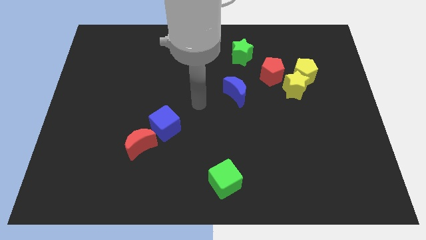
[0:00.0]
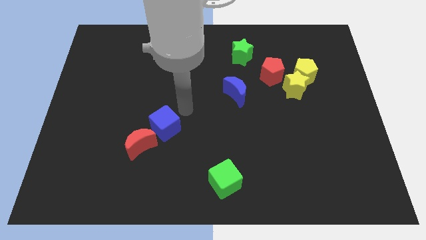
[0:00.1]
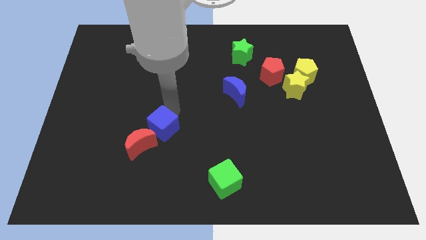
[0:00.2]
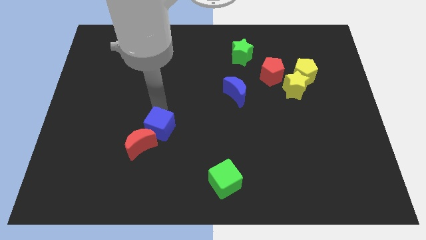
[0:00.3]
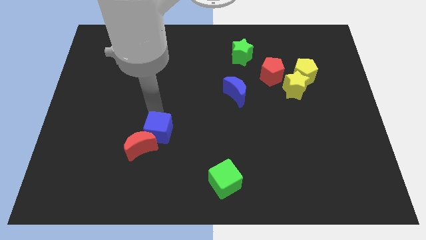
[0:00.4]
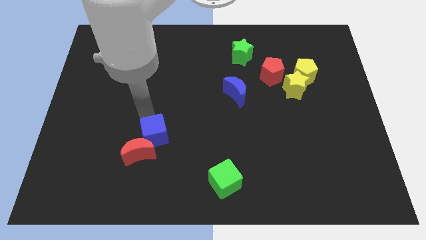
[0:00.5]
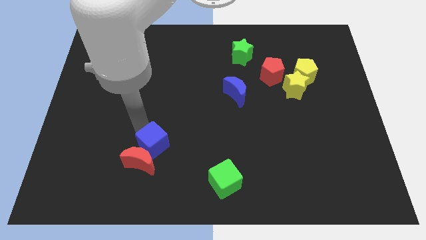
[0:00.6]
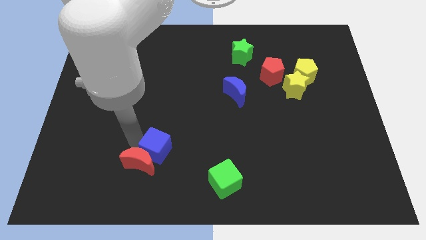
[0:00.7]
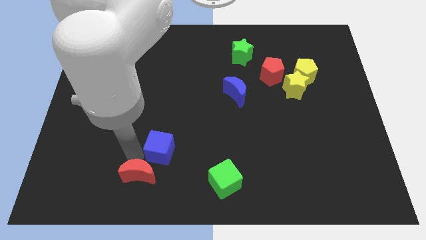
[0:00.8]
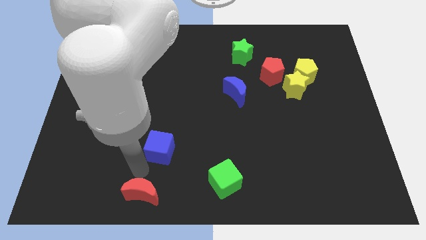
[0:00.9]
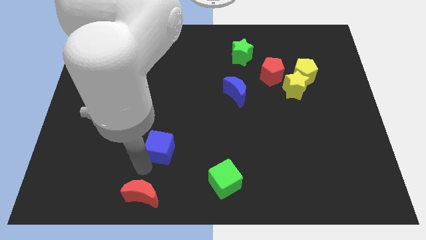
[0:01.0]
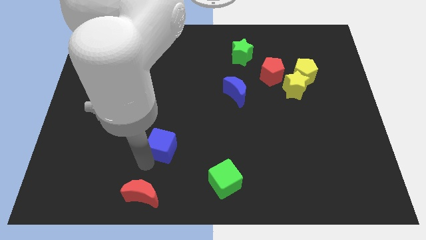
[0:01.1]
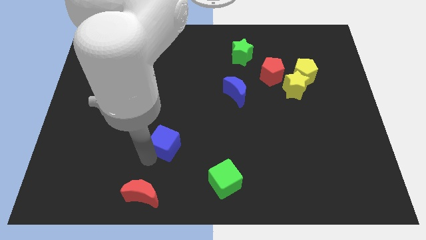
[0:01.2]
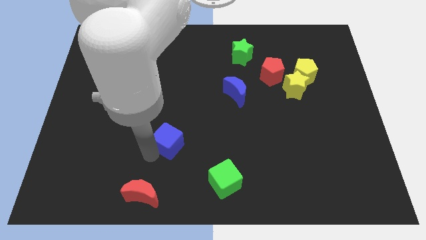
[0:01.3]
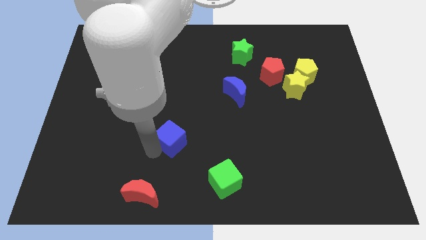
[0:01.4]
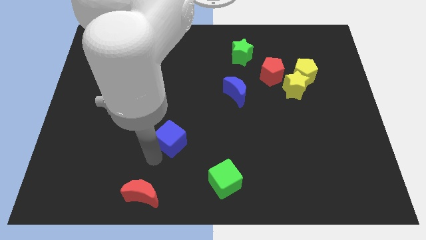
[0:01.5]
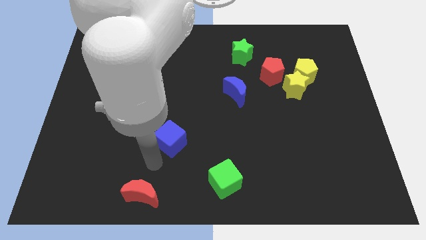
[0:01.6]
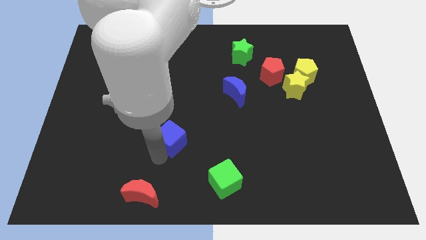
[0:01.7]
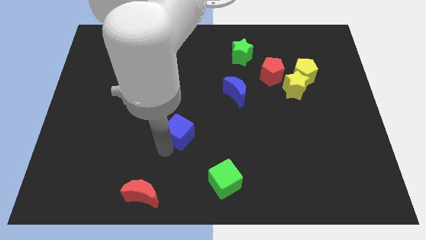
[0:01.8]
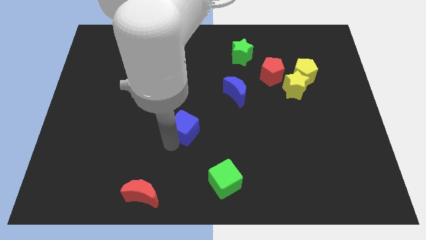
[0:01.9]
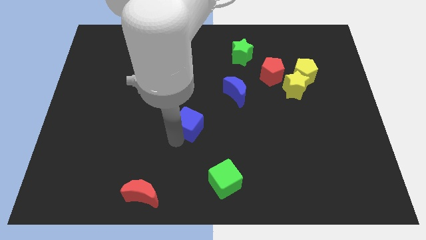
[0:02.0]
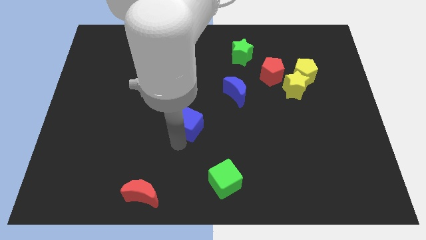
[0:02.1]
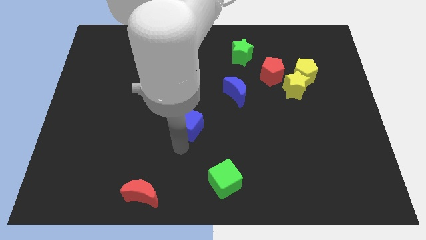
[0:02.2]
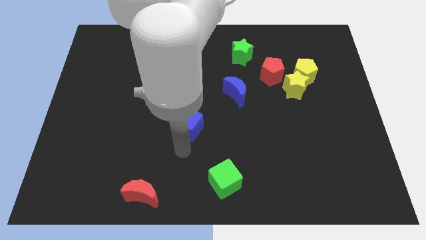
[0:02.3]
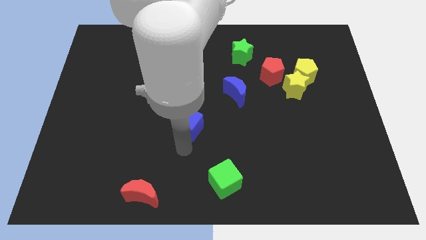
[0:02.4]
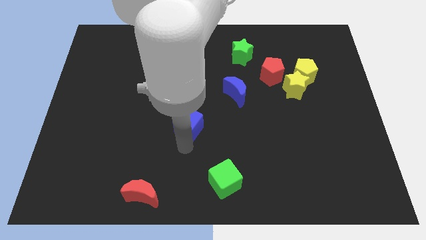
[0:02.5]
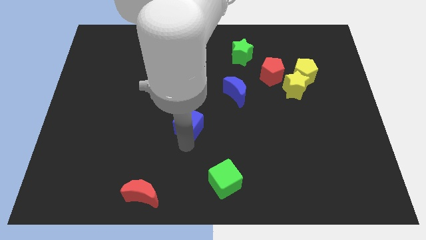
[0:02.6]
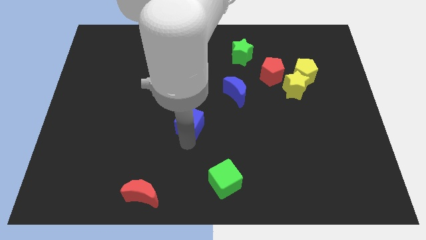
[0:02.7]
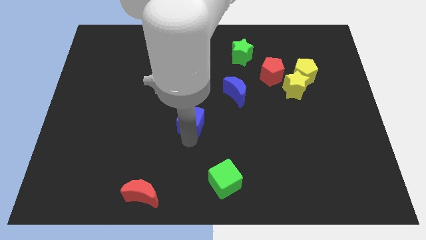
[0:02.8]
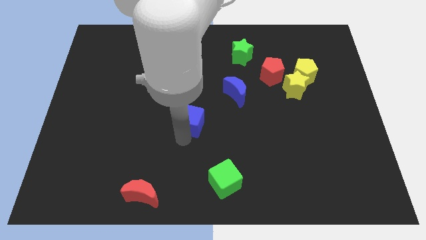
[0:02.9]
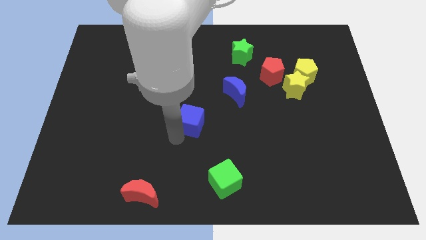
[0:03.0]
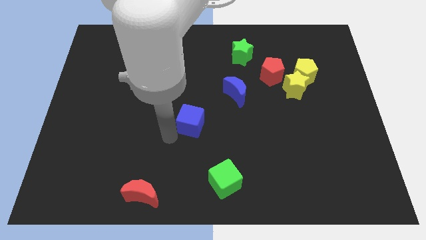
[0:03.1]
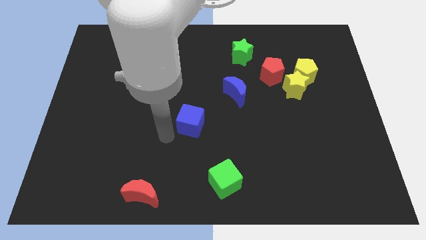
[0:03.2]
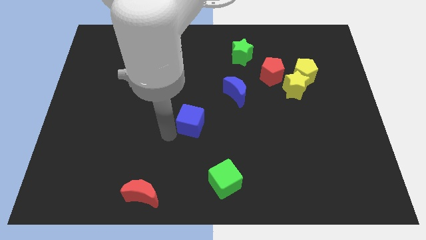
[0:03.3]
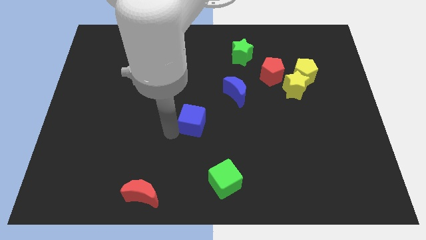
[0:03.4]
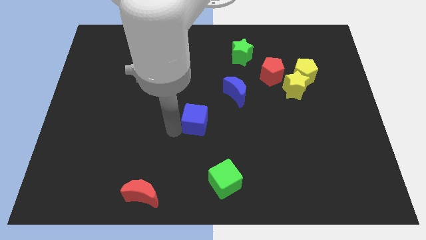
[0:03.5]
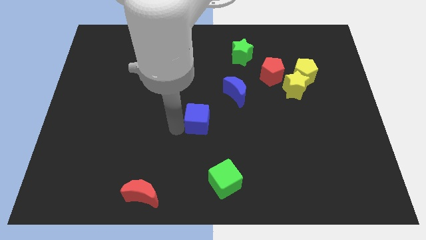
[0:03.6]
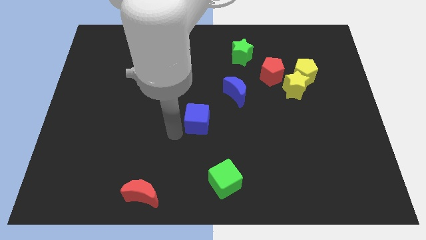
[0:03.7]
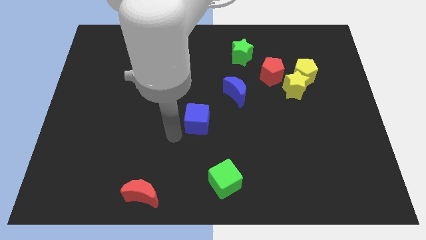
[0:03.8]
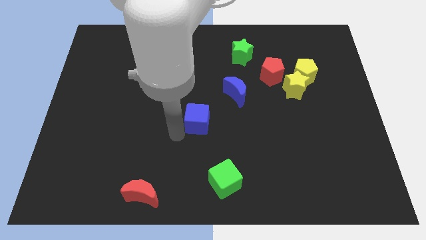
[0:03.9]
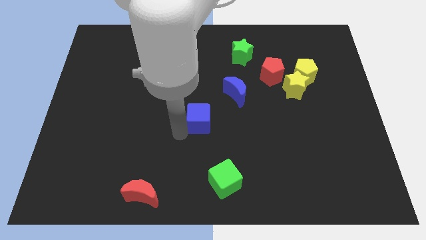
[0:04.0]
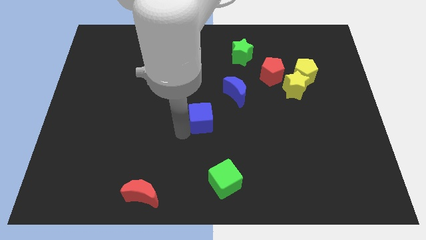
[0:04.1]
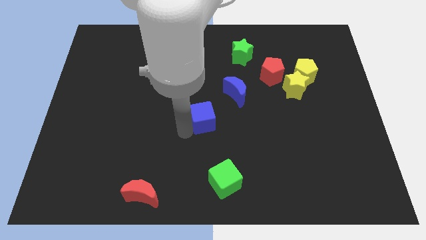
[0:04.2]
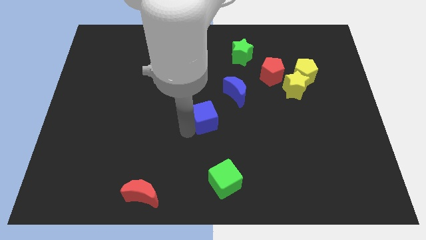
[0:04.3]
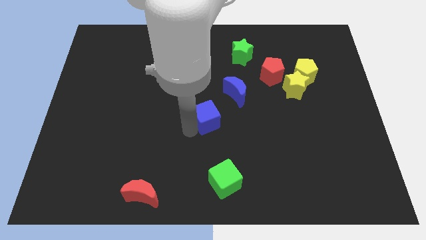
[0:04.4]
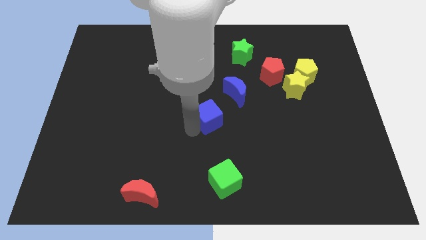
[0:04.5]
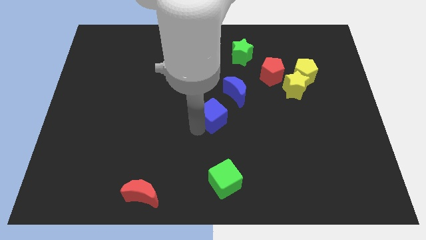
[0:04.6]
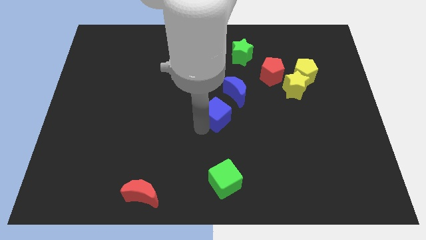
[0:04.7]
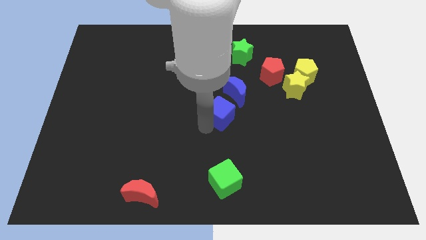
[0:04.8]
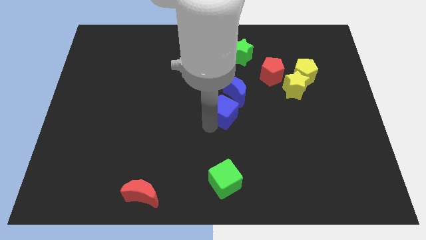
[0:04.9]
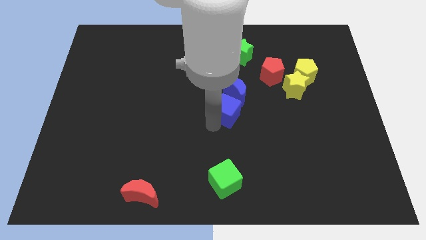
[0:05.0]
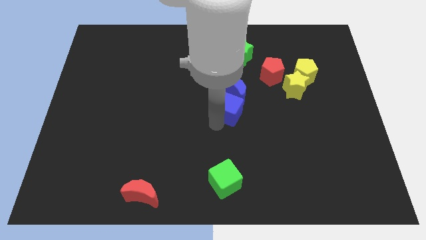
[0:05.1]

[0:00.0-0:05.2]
push the blue cube next to the blue moon

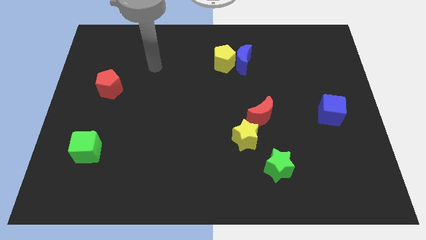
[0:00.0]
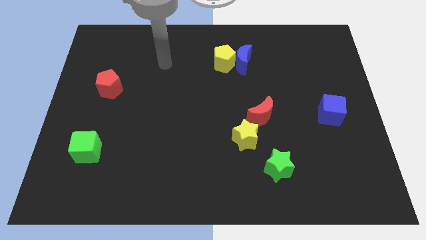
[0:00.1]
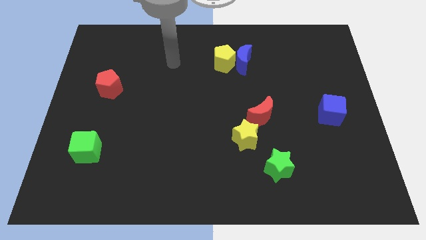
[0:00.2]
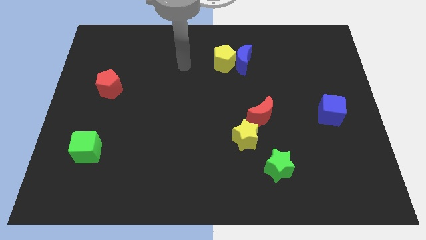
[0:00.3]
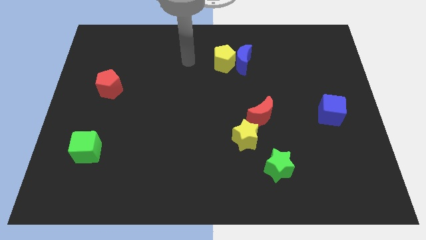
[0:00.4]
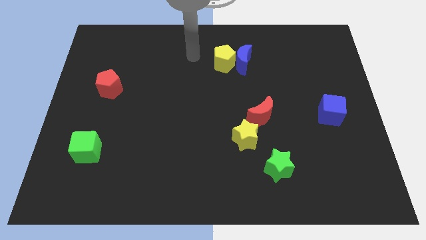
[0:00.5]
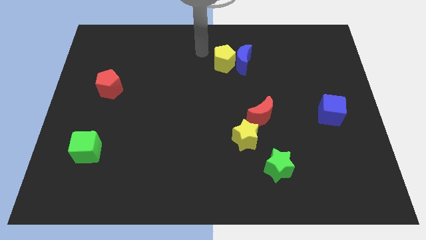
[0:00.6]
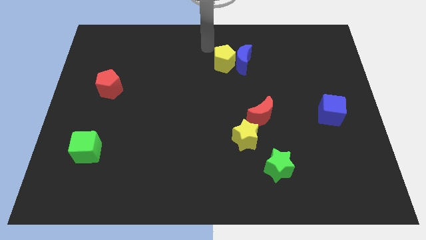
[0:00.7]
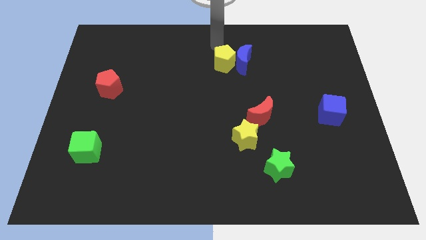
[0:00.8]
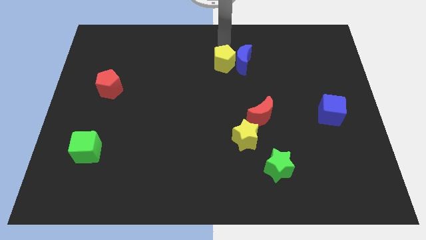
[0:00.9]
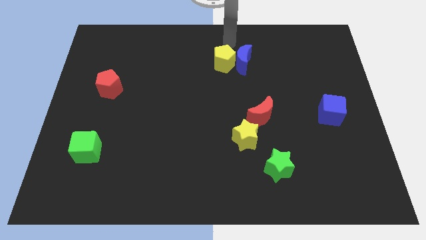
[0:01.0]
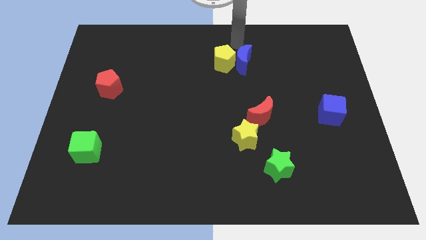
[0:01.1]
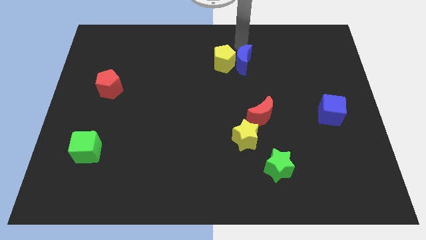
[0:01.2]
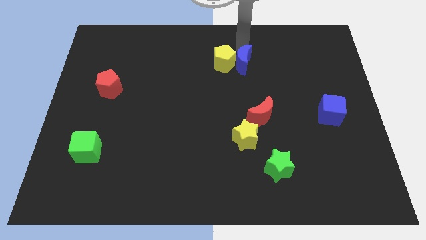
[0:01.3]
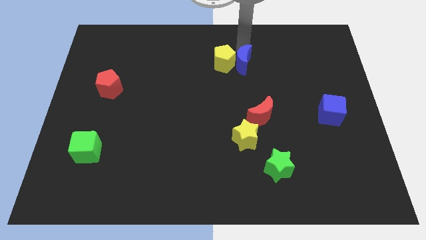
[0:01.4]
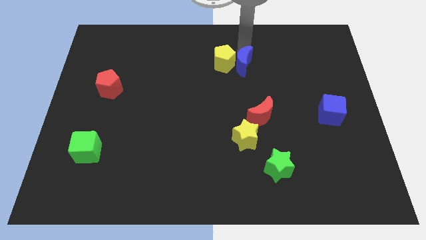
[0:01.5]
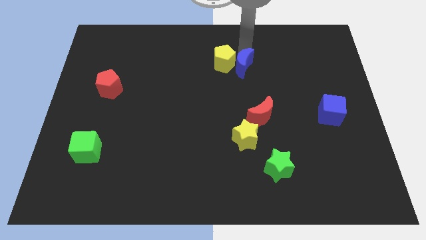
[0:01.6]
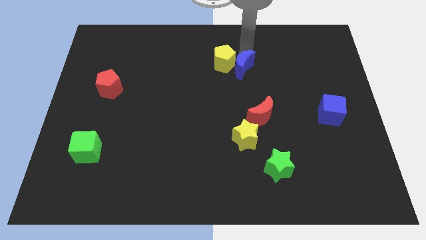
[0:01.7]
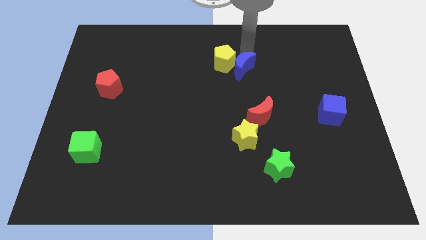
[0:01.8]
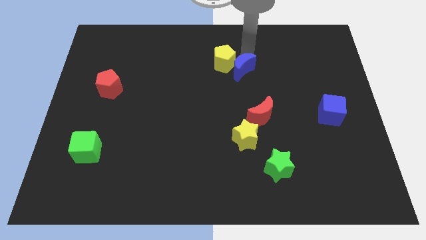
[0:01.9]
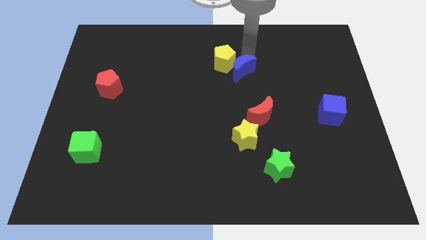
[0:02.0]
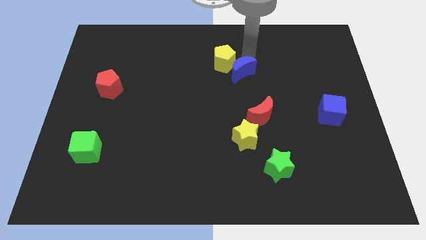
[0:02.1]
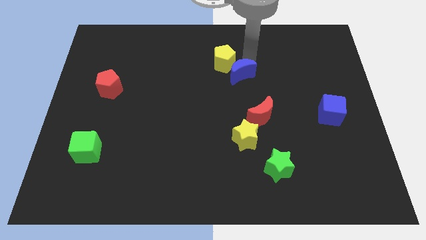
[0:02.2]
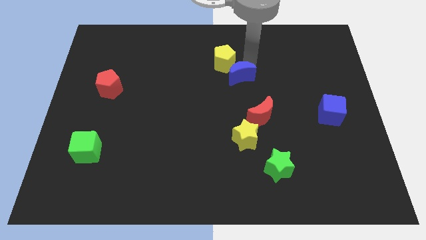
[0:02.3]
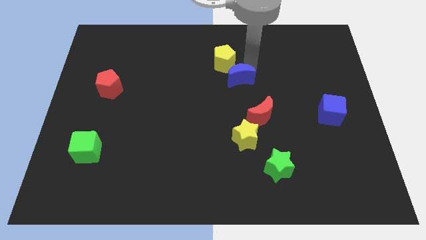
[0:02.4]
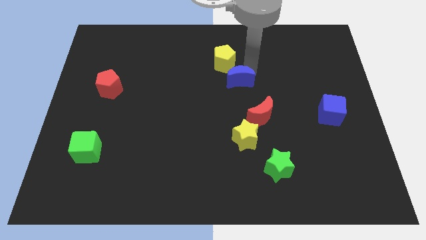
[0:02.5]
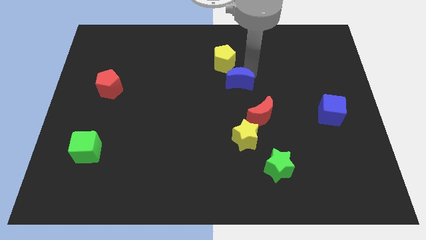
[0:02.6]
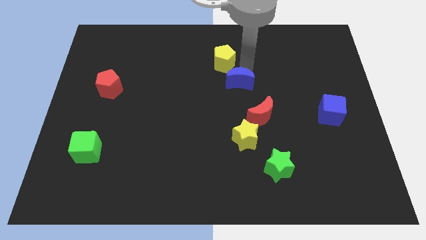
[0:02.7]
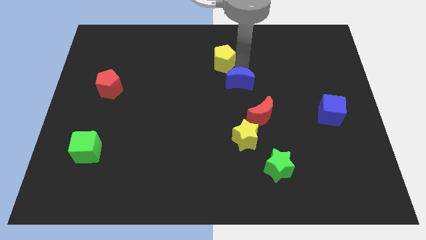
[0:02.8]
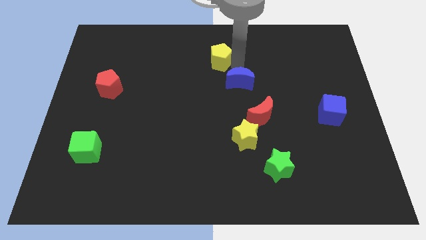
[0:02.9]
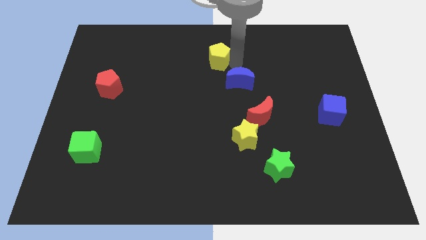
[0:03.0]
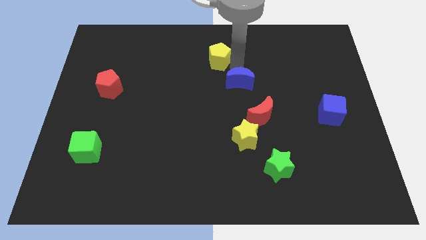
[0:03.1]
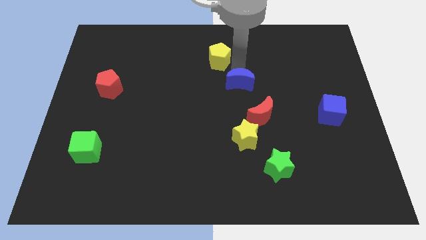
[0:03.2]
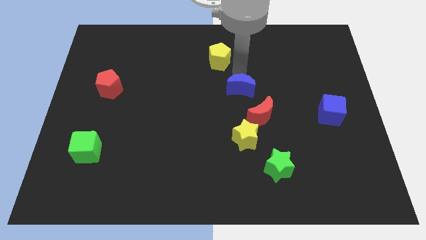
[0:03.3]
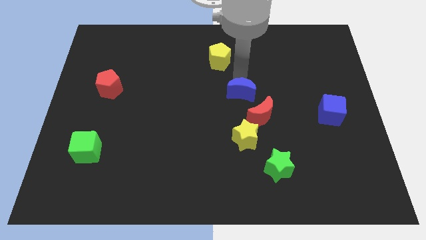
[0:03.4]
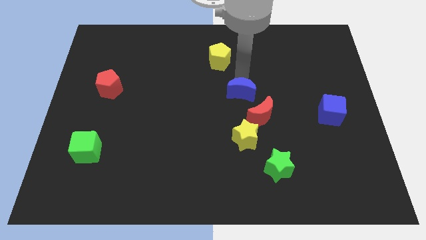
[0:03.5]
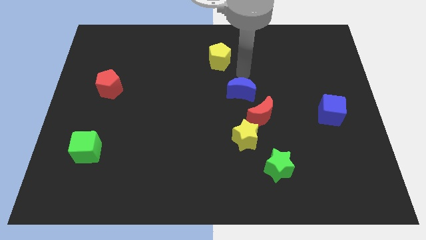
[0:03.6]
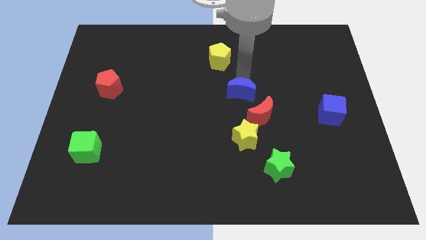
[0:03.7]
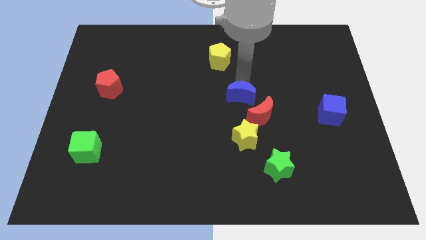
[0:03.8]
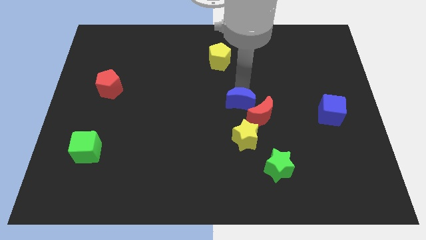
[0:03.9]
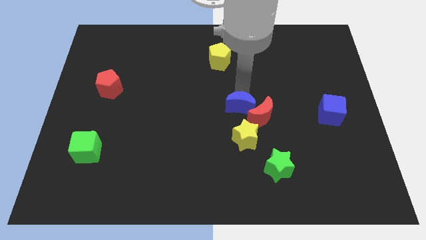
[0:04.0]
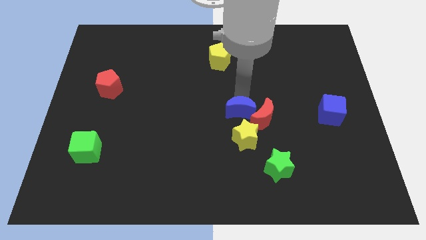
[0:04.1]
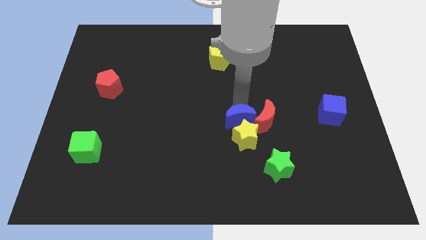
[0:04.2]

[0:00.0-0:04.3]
put the blue moon next to the yellow star
